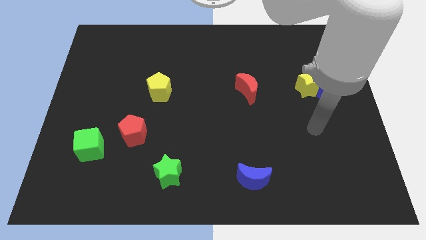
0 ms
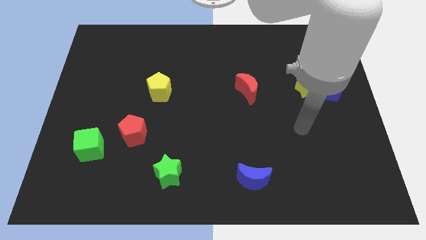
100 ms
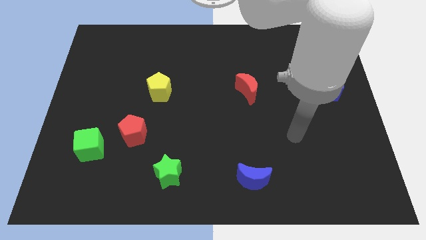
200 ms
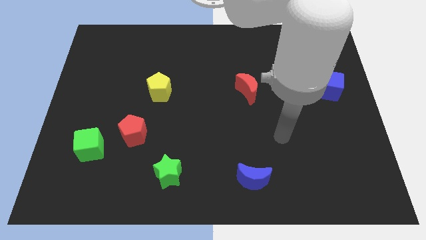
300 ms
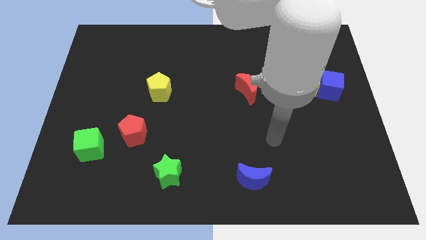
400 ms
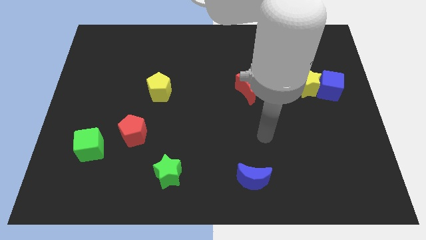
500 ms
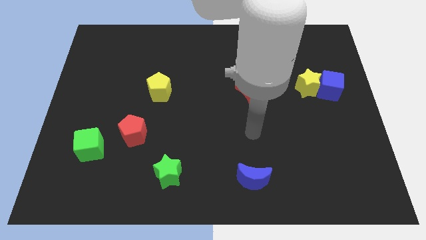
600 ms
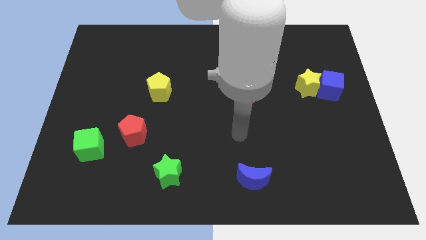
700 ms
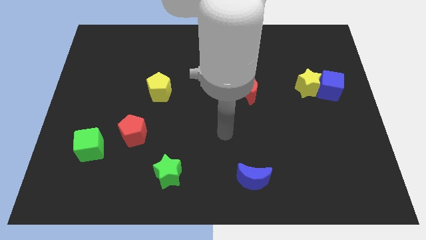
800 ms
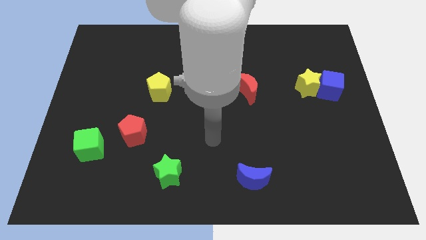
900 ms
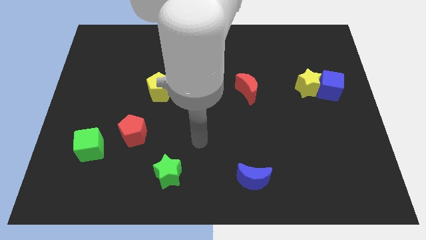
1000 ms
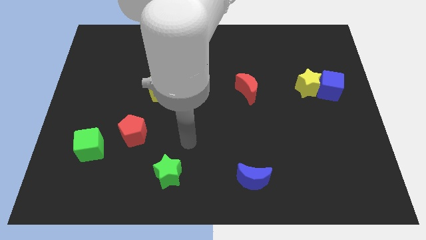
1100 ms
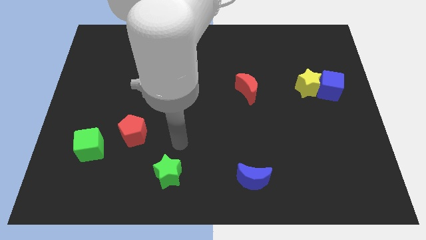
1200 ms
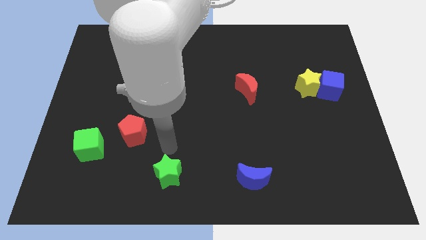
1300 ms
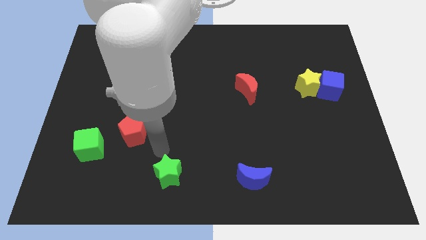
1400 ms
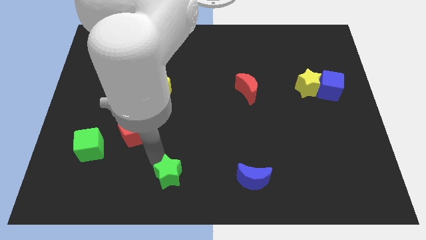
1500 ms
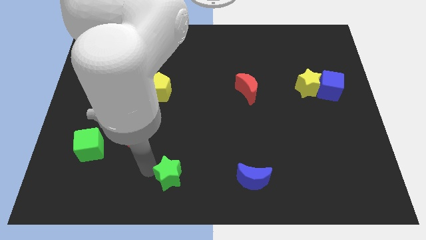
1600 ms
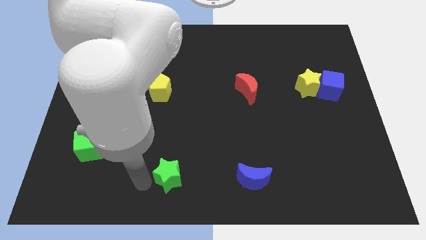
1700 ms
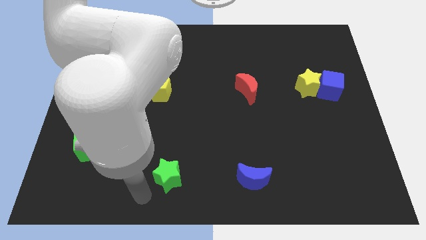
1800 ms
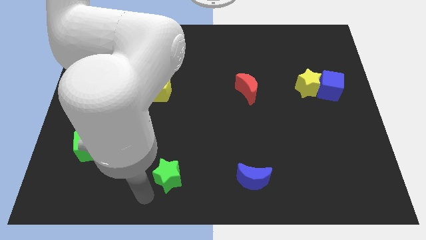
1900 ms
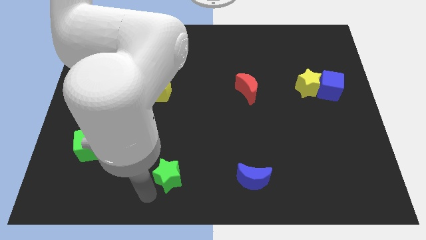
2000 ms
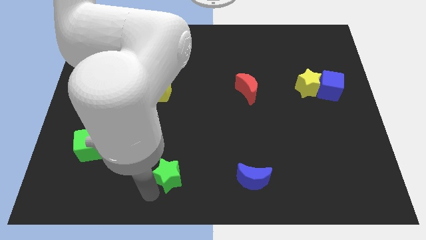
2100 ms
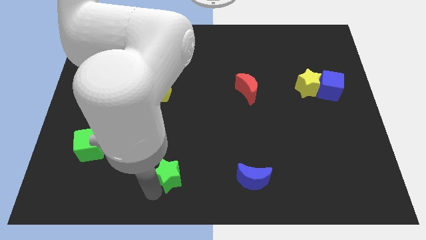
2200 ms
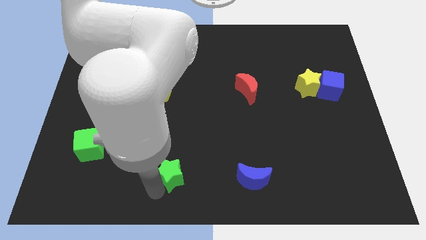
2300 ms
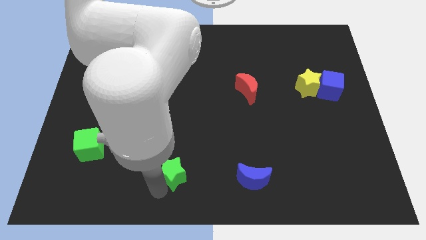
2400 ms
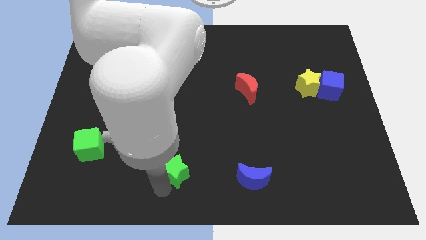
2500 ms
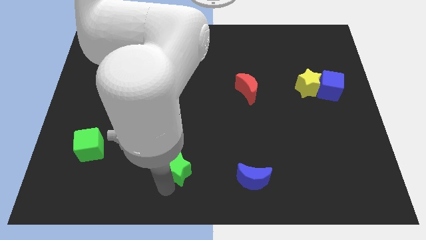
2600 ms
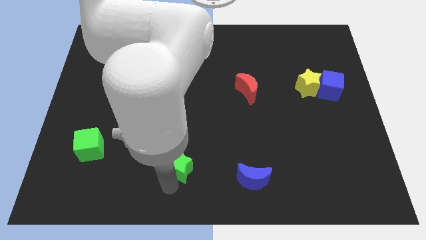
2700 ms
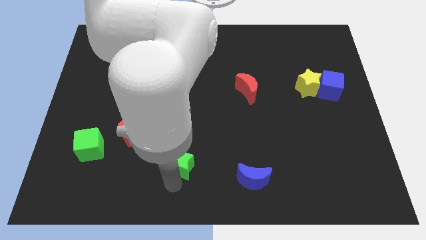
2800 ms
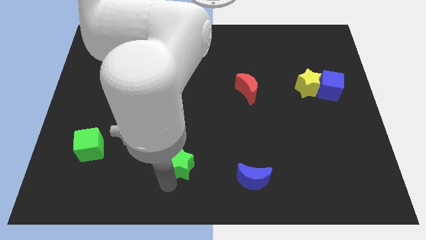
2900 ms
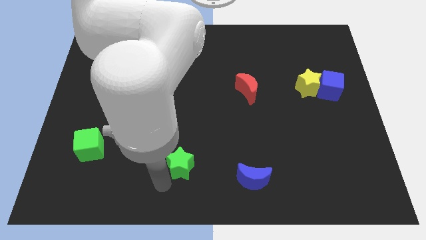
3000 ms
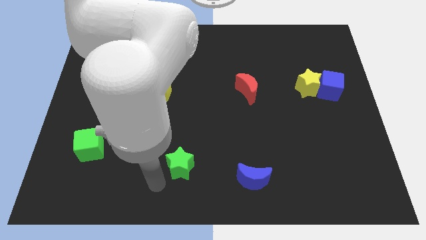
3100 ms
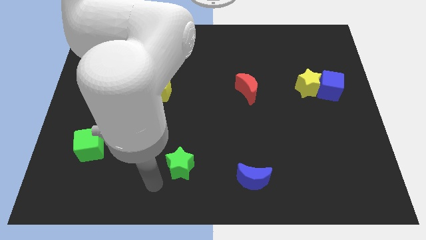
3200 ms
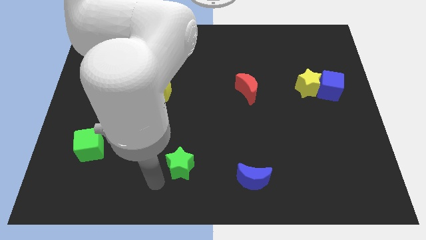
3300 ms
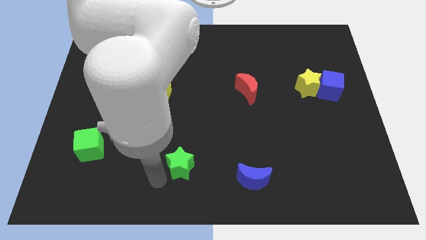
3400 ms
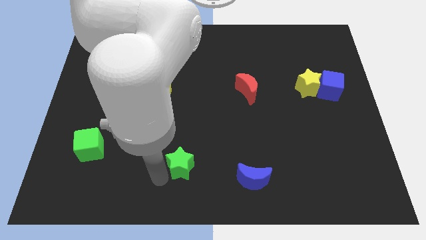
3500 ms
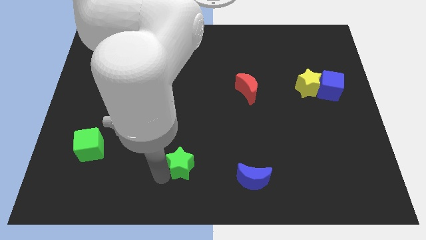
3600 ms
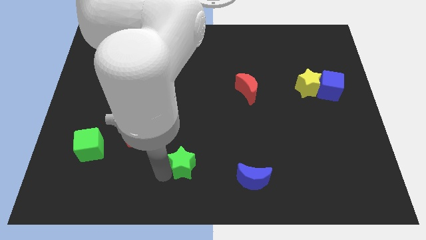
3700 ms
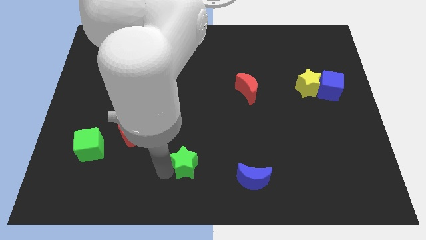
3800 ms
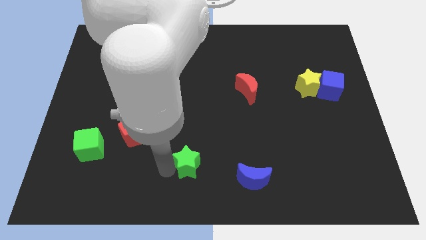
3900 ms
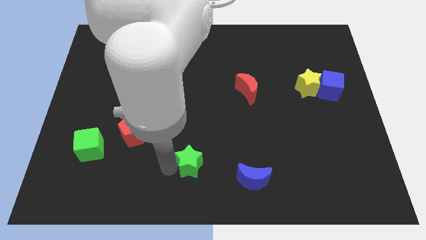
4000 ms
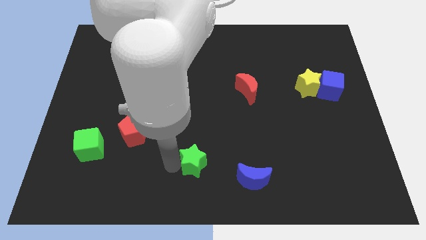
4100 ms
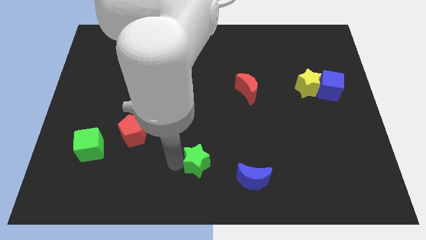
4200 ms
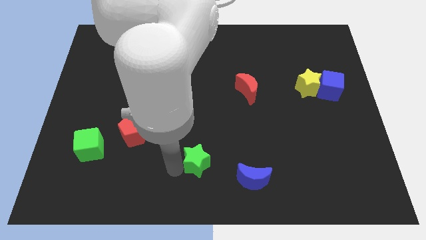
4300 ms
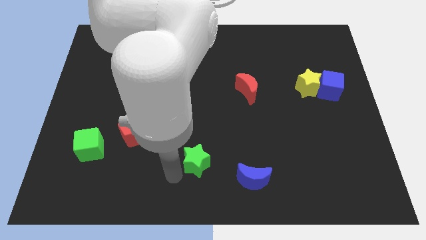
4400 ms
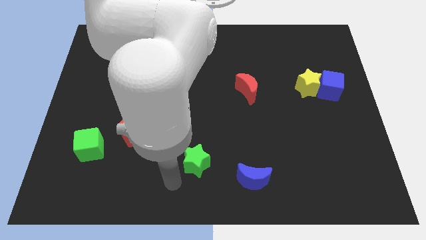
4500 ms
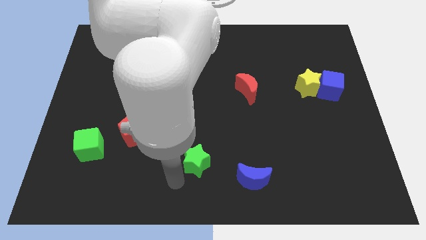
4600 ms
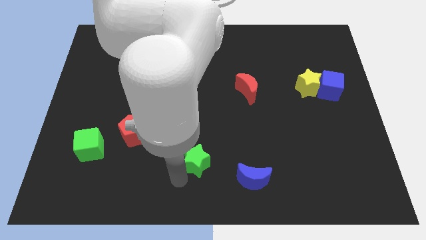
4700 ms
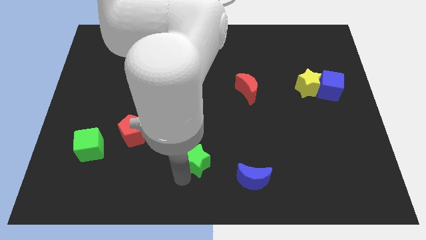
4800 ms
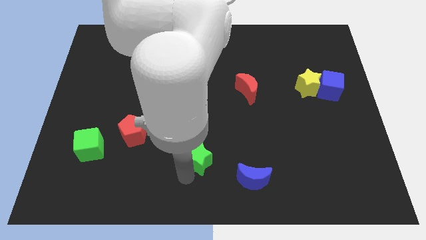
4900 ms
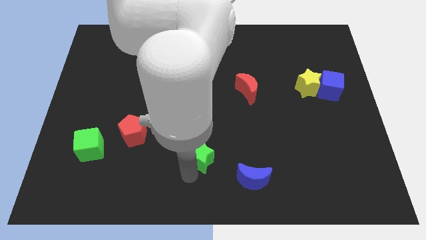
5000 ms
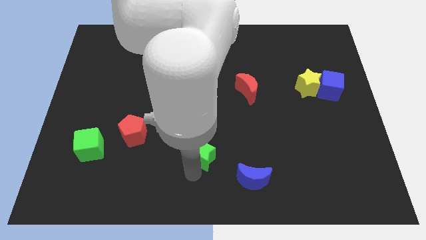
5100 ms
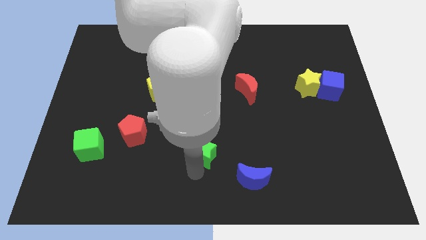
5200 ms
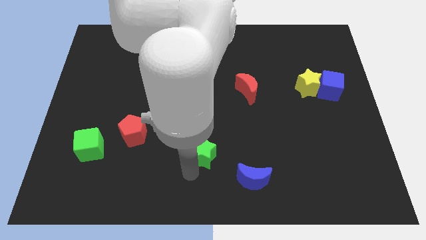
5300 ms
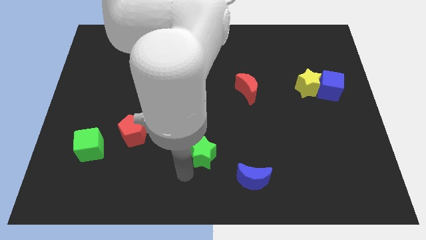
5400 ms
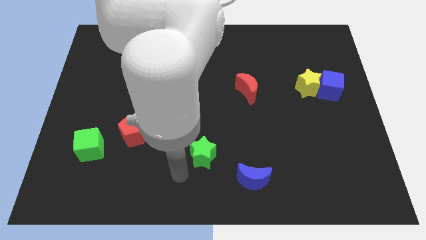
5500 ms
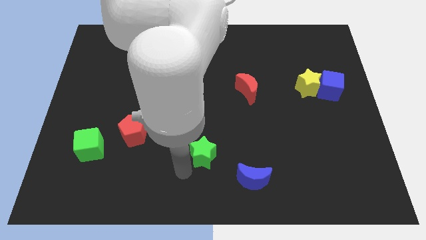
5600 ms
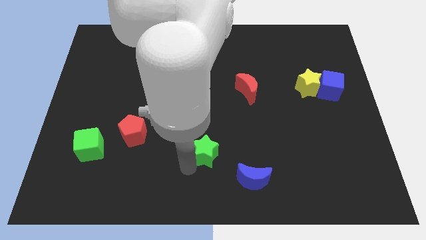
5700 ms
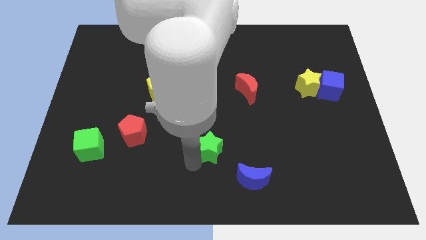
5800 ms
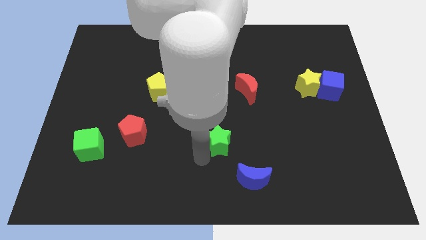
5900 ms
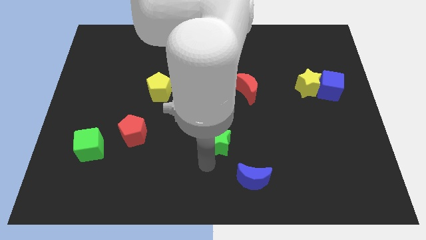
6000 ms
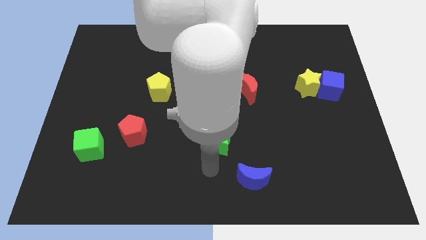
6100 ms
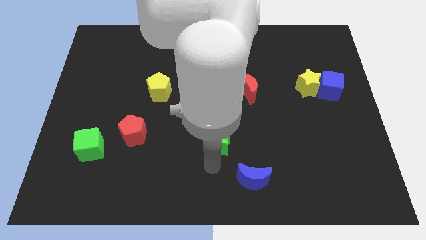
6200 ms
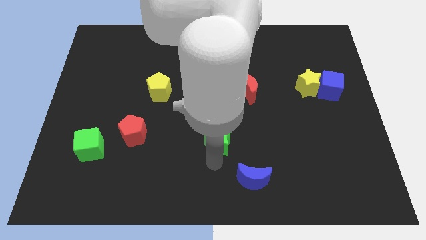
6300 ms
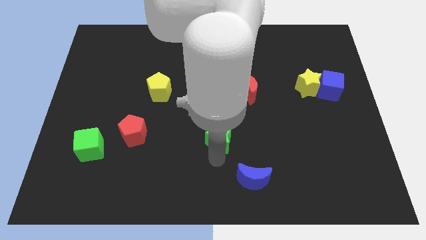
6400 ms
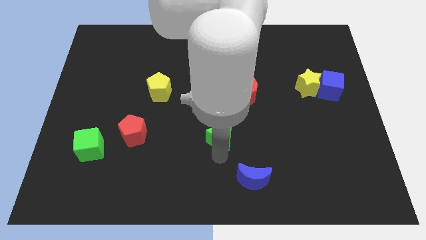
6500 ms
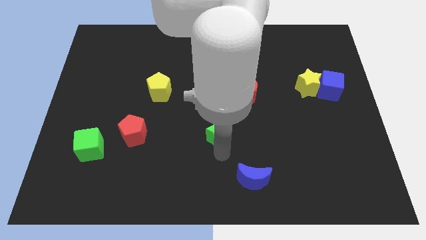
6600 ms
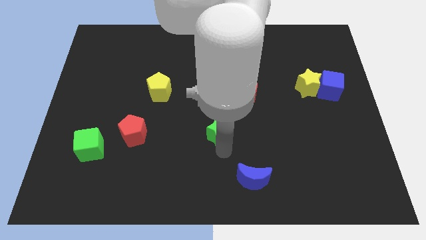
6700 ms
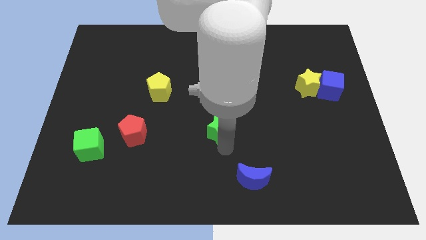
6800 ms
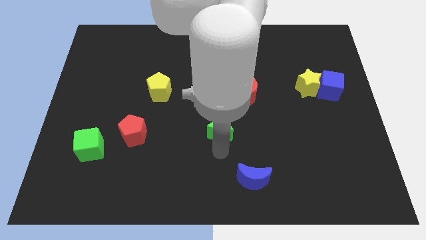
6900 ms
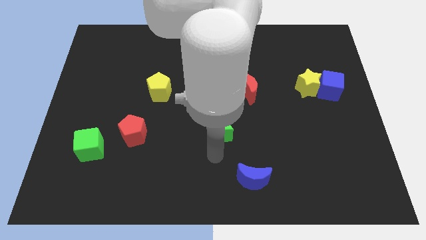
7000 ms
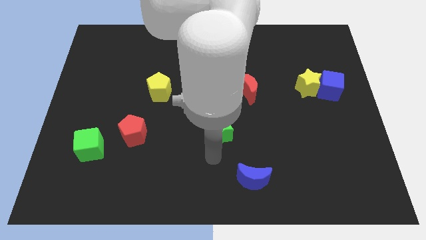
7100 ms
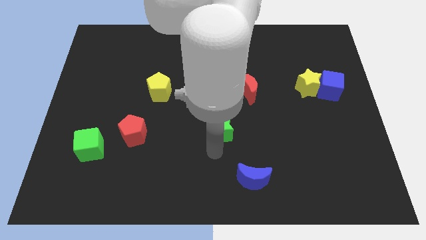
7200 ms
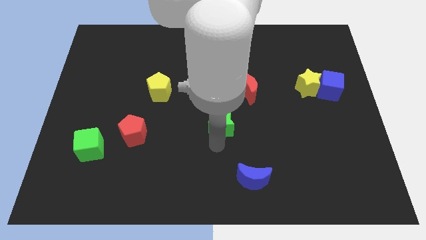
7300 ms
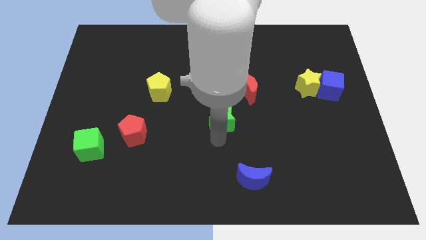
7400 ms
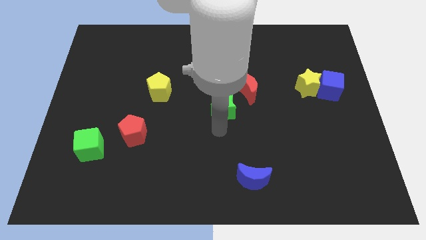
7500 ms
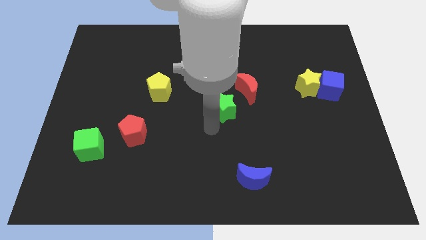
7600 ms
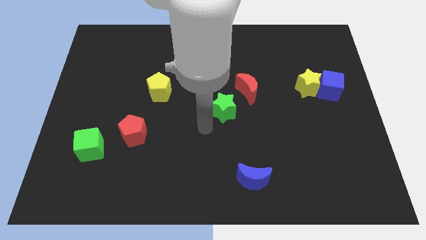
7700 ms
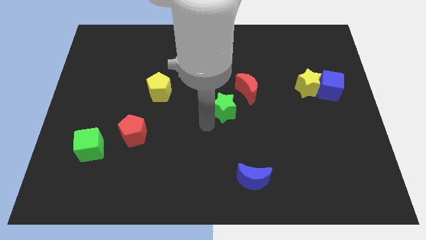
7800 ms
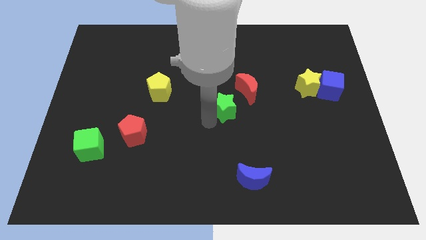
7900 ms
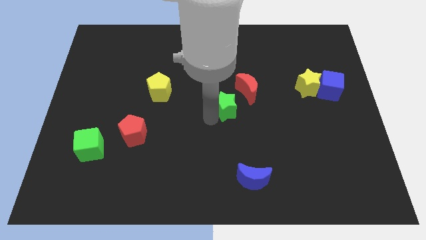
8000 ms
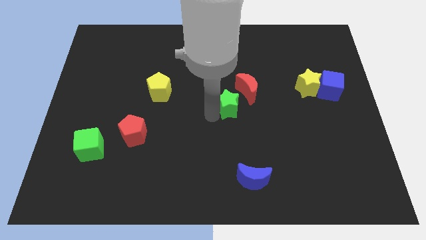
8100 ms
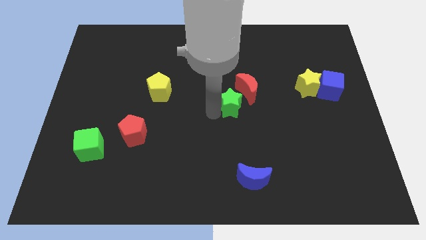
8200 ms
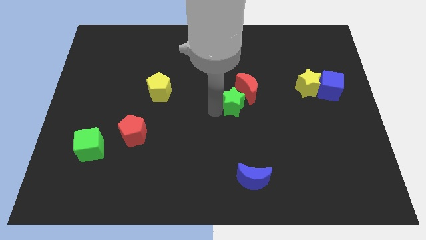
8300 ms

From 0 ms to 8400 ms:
put the green star towards the red moon
